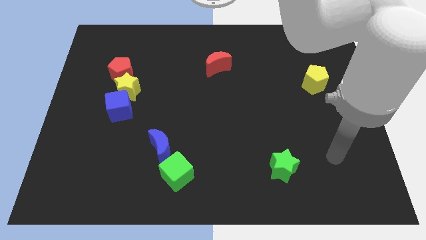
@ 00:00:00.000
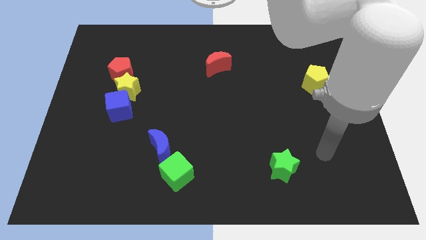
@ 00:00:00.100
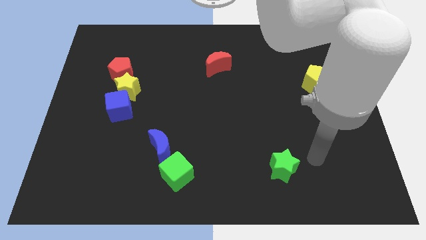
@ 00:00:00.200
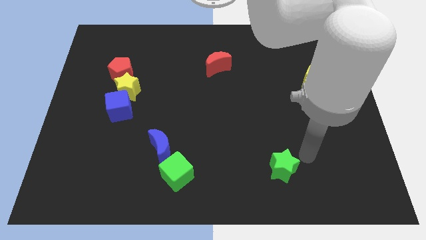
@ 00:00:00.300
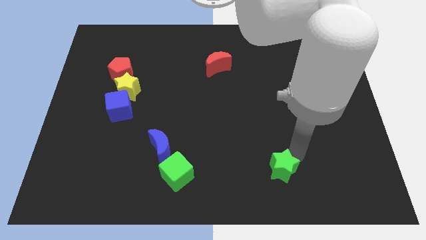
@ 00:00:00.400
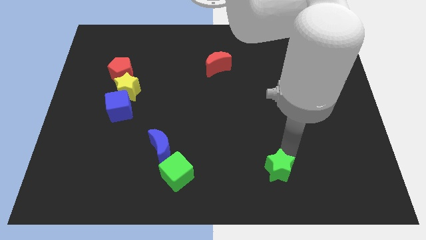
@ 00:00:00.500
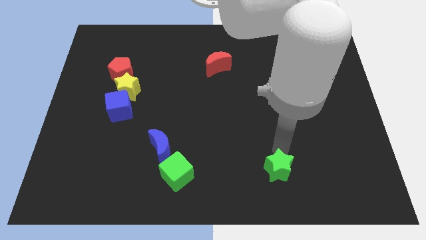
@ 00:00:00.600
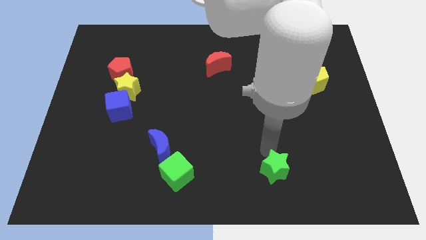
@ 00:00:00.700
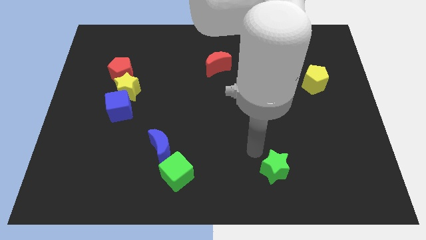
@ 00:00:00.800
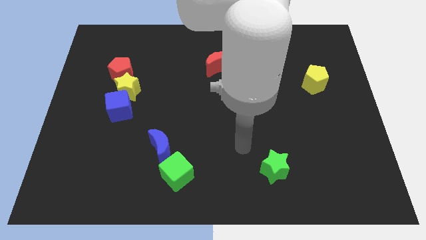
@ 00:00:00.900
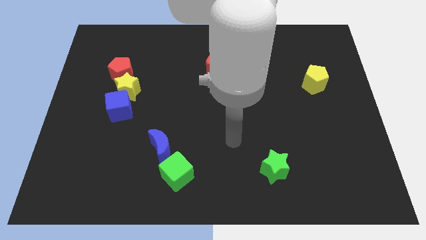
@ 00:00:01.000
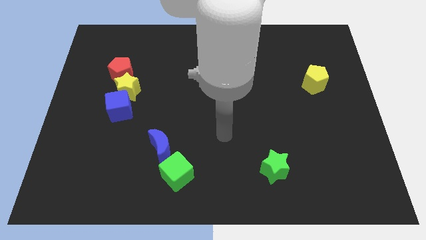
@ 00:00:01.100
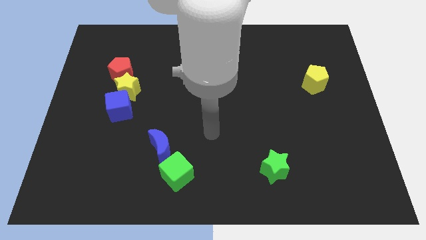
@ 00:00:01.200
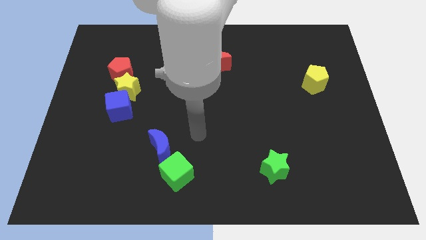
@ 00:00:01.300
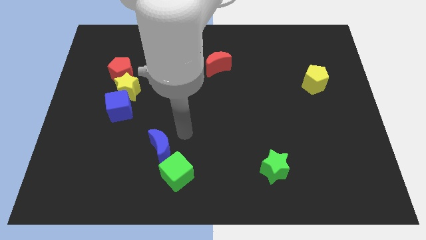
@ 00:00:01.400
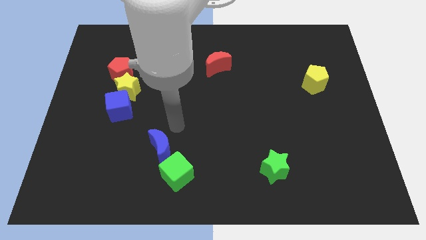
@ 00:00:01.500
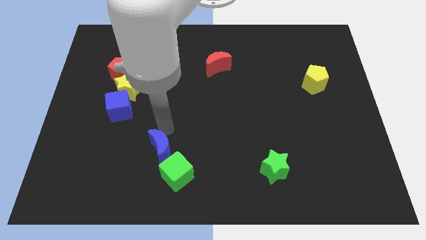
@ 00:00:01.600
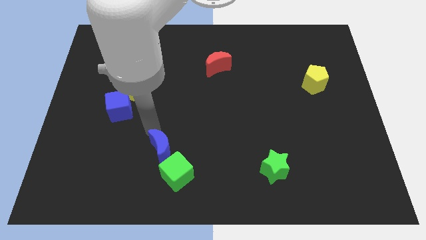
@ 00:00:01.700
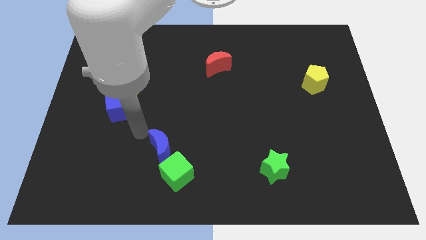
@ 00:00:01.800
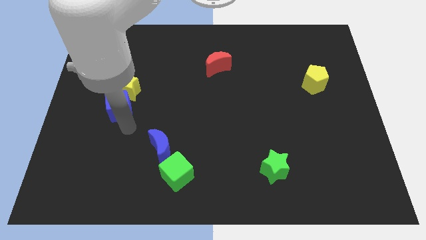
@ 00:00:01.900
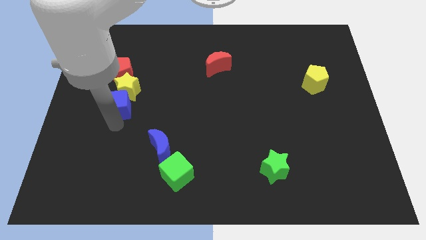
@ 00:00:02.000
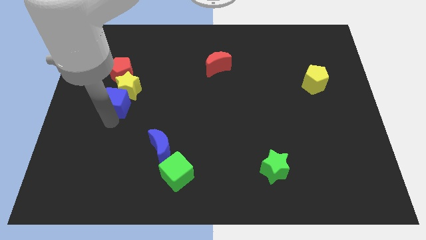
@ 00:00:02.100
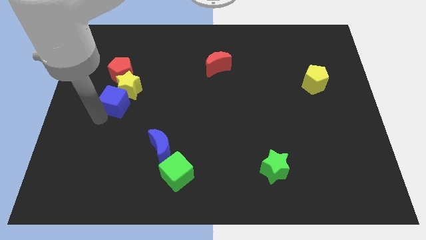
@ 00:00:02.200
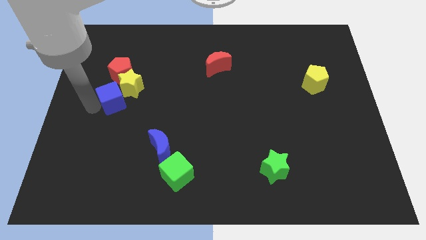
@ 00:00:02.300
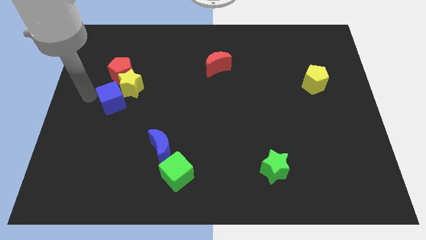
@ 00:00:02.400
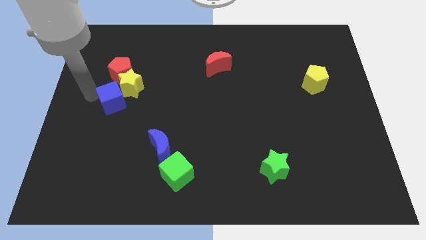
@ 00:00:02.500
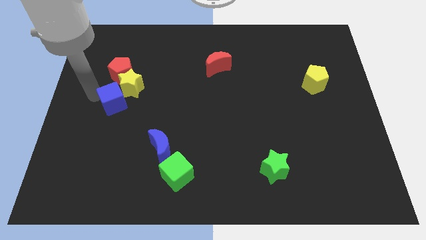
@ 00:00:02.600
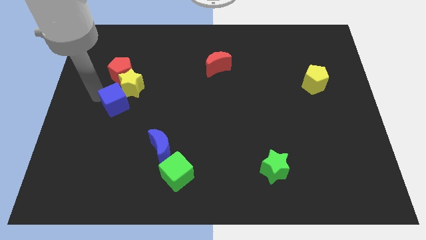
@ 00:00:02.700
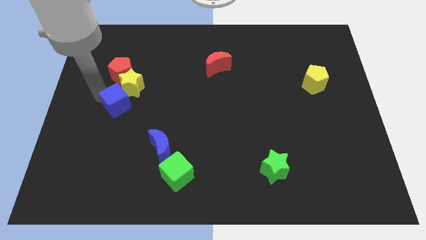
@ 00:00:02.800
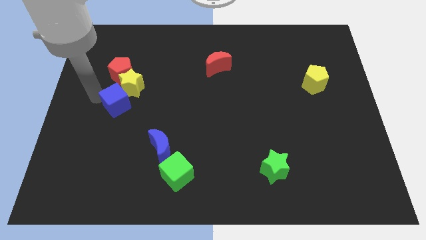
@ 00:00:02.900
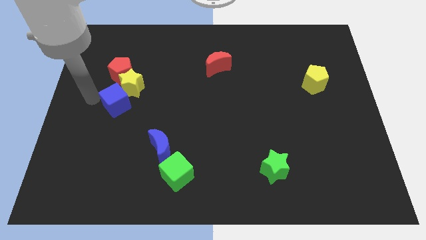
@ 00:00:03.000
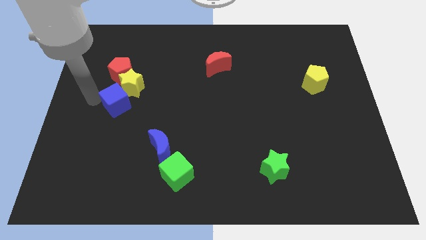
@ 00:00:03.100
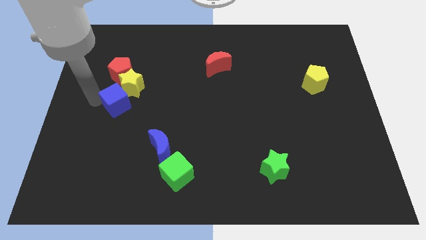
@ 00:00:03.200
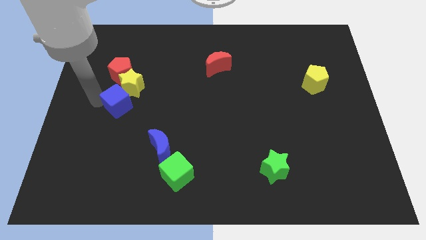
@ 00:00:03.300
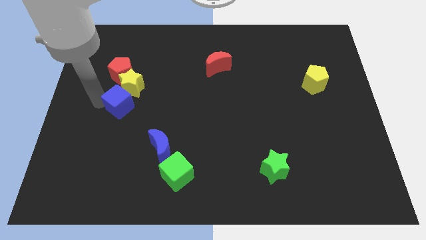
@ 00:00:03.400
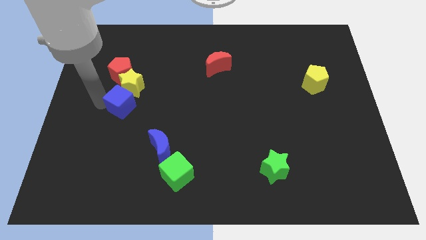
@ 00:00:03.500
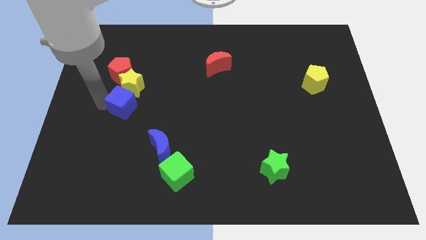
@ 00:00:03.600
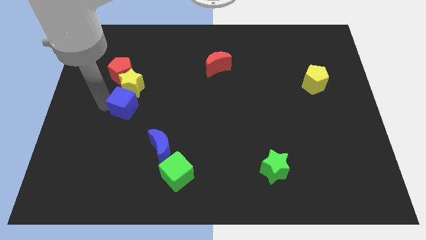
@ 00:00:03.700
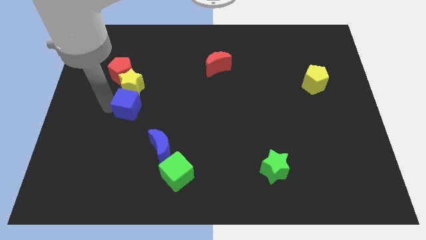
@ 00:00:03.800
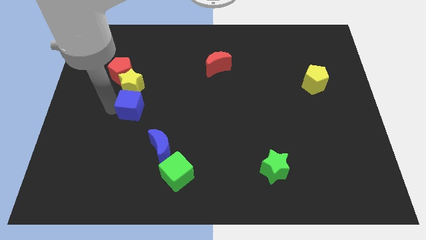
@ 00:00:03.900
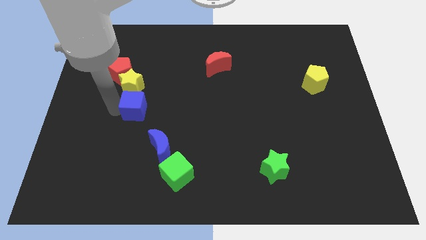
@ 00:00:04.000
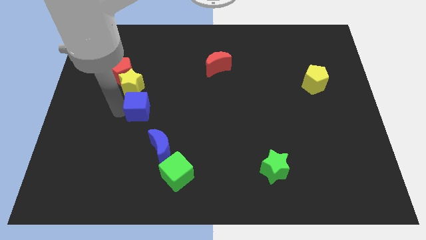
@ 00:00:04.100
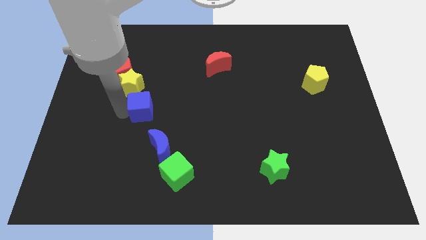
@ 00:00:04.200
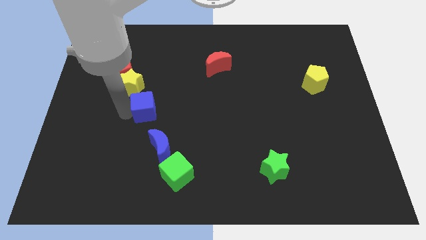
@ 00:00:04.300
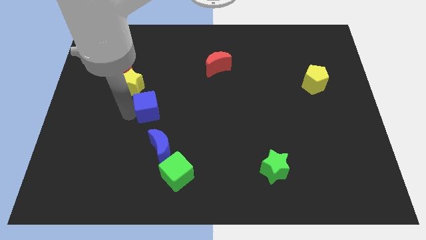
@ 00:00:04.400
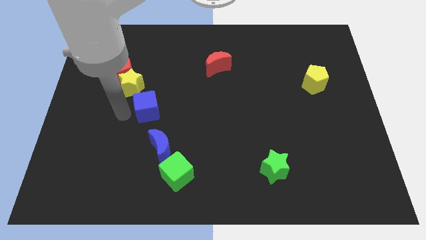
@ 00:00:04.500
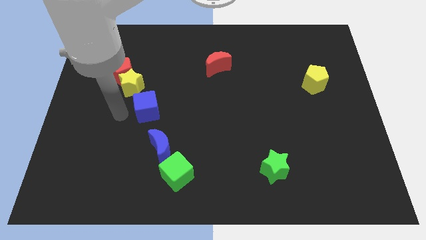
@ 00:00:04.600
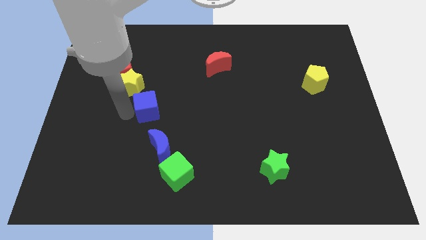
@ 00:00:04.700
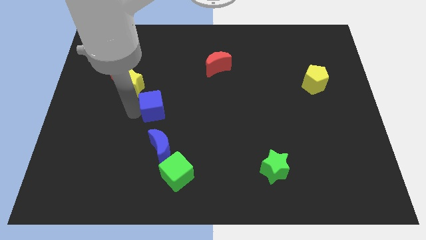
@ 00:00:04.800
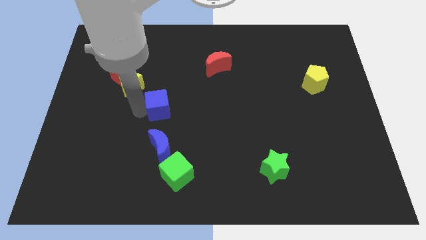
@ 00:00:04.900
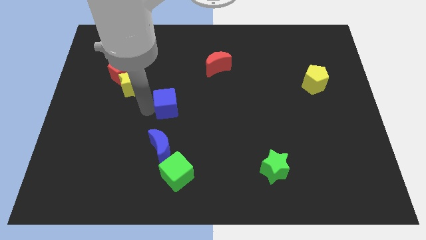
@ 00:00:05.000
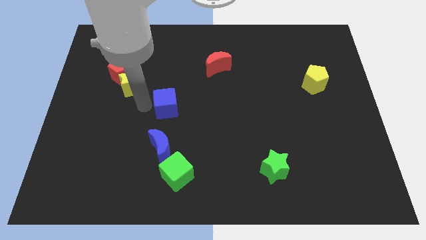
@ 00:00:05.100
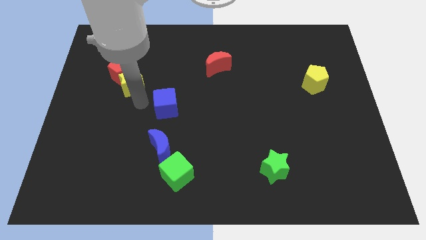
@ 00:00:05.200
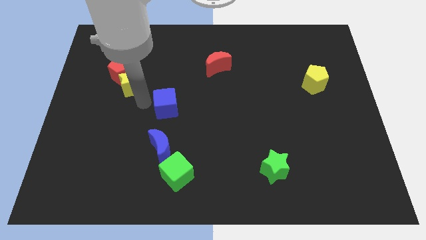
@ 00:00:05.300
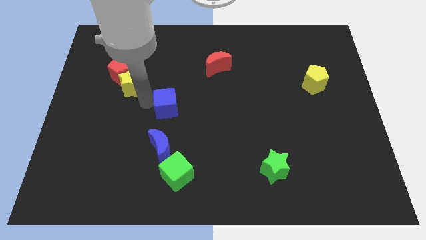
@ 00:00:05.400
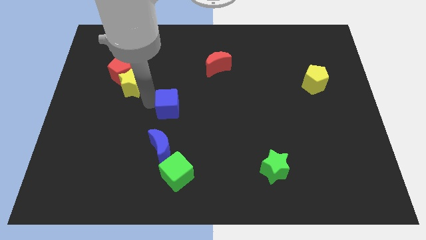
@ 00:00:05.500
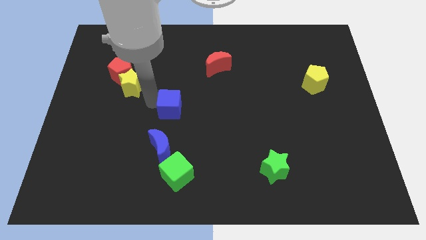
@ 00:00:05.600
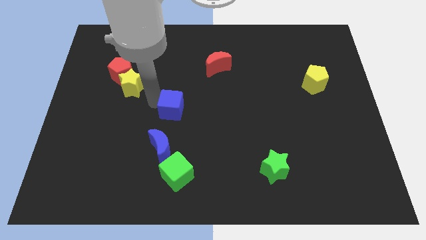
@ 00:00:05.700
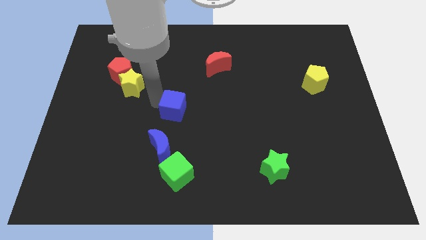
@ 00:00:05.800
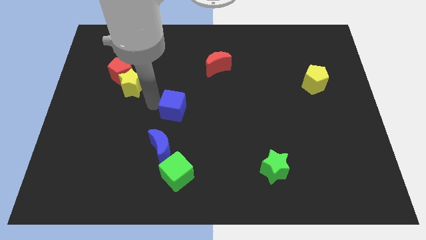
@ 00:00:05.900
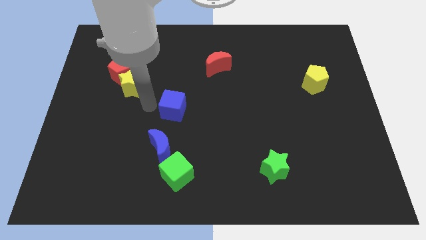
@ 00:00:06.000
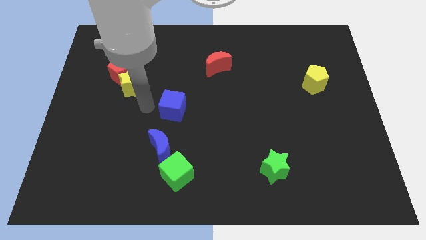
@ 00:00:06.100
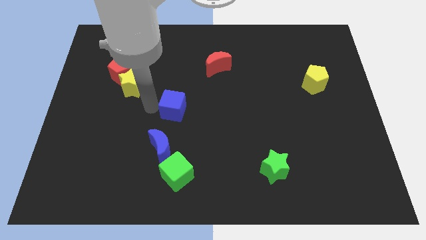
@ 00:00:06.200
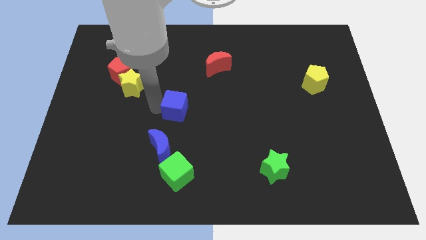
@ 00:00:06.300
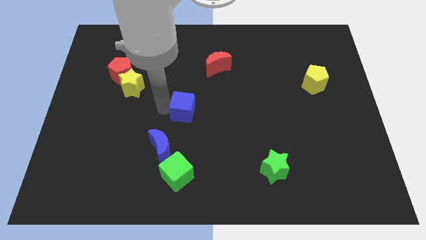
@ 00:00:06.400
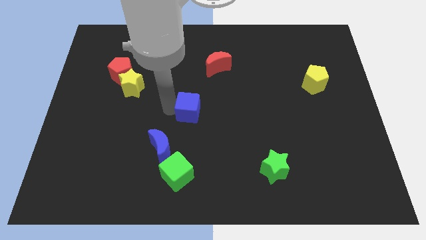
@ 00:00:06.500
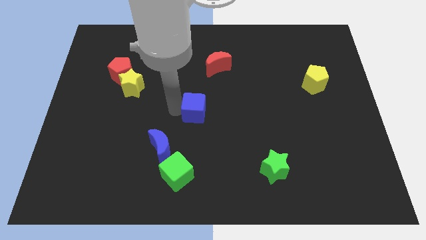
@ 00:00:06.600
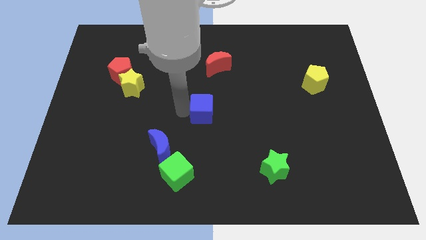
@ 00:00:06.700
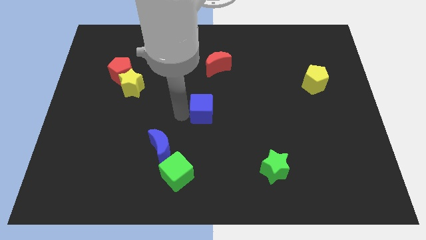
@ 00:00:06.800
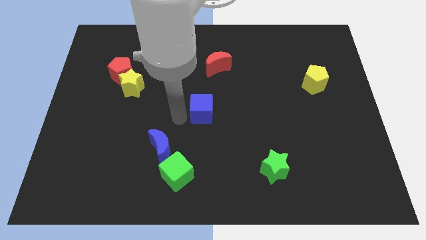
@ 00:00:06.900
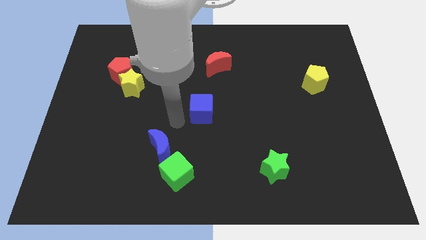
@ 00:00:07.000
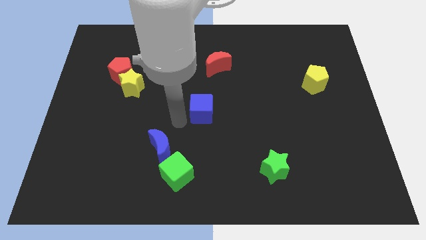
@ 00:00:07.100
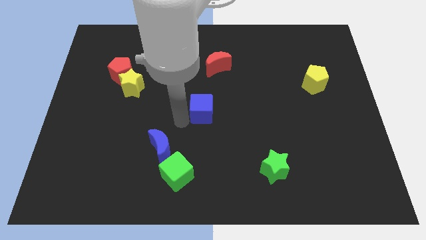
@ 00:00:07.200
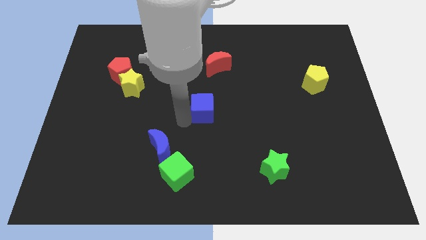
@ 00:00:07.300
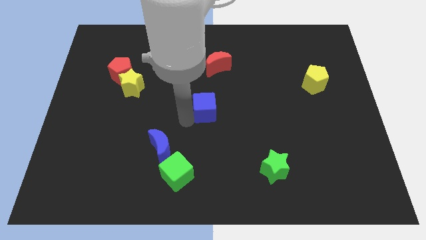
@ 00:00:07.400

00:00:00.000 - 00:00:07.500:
slide the blue cube right

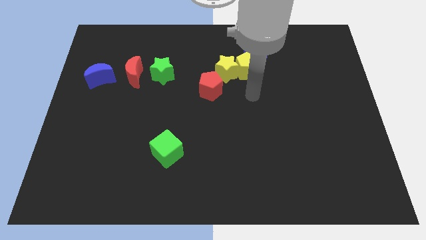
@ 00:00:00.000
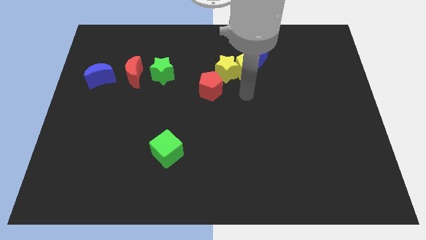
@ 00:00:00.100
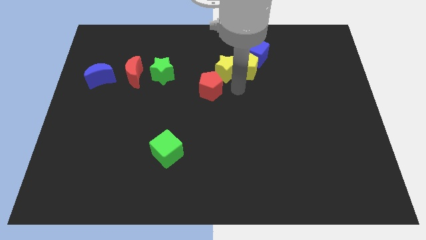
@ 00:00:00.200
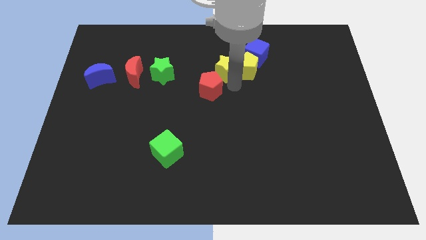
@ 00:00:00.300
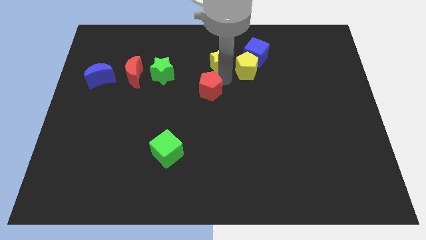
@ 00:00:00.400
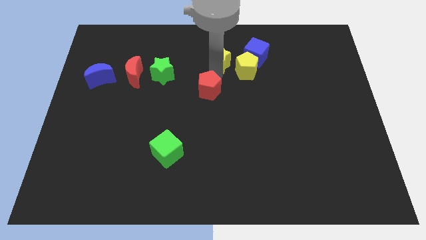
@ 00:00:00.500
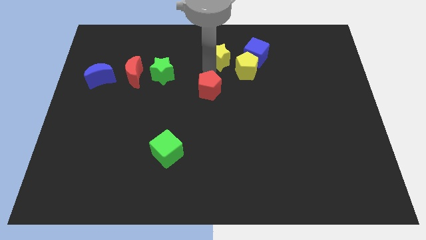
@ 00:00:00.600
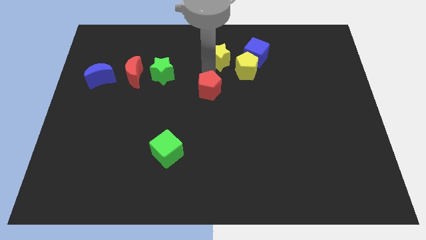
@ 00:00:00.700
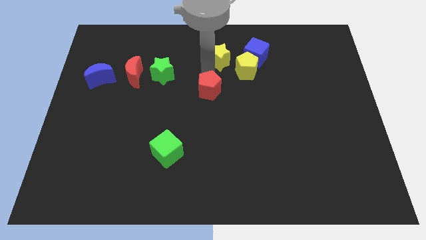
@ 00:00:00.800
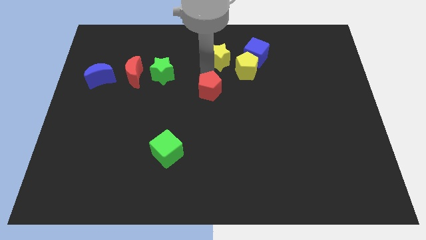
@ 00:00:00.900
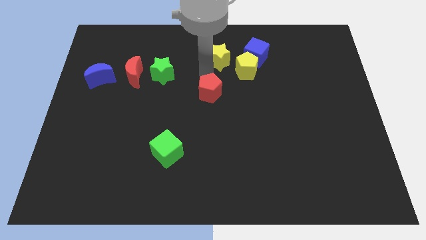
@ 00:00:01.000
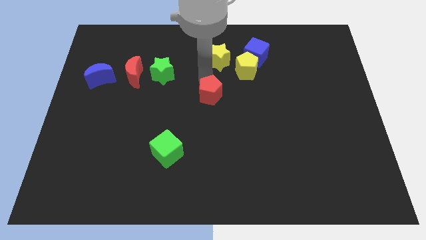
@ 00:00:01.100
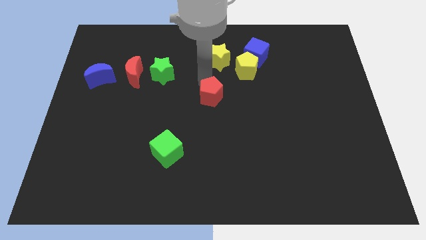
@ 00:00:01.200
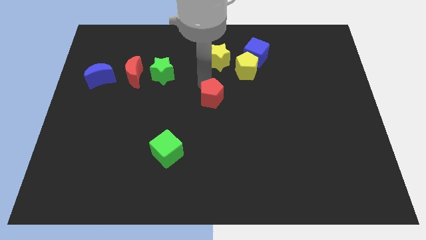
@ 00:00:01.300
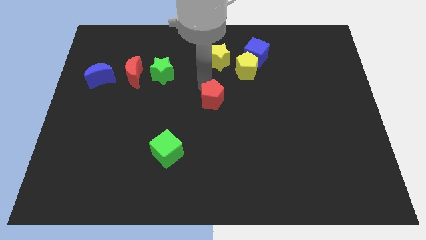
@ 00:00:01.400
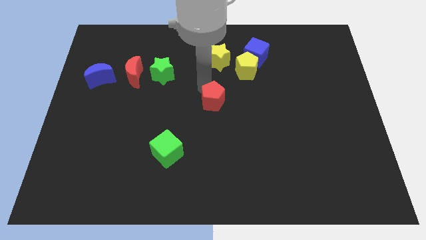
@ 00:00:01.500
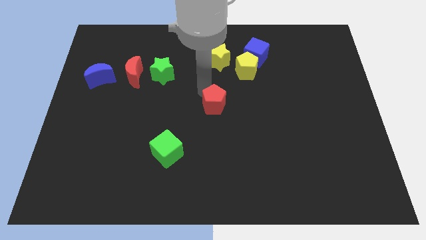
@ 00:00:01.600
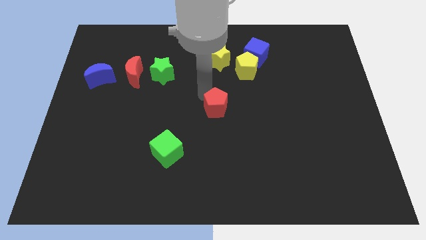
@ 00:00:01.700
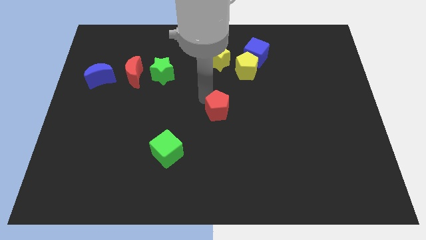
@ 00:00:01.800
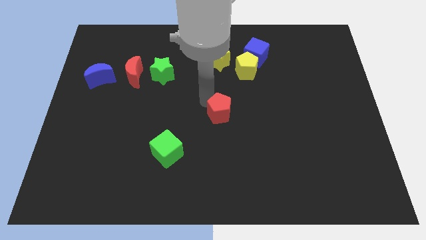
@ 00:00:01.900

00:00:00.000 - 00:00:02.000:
move the red pentagon downwards a little
